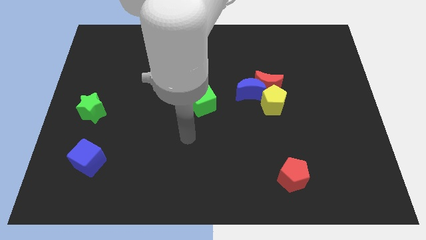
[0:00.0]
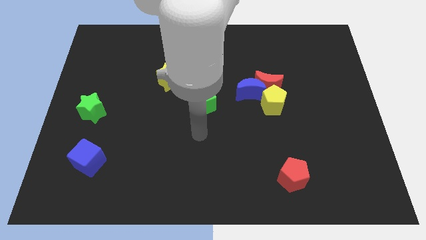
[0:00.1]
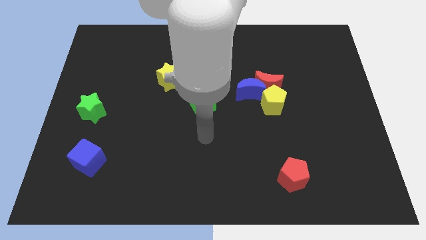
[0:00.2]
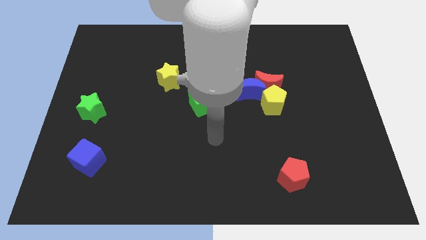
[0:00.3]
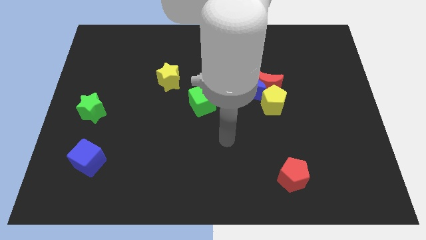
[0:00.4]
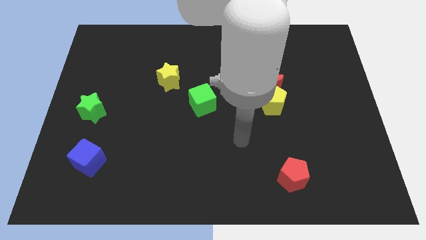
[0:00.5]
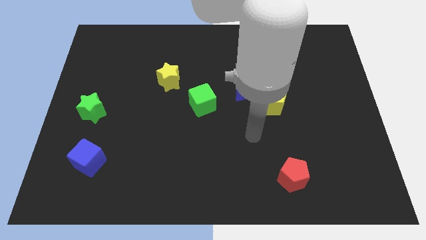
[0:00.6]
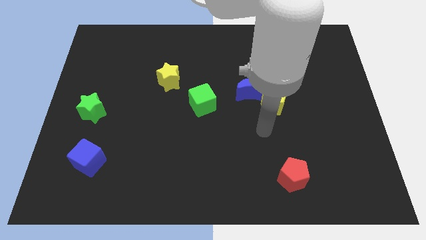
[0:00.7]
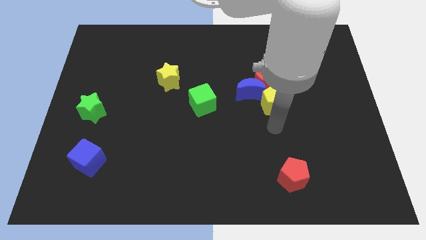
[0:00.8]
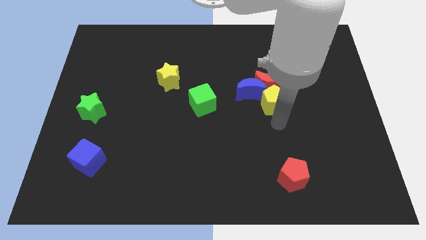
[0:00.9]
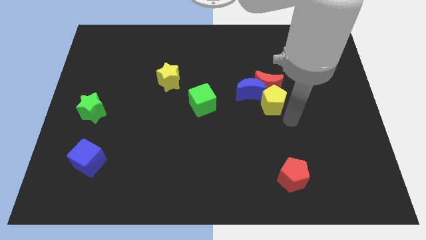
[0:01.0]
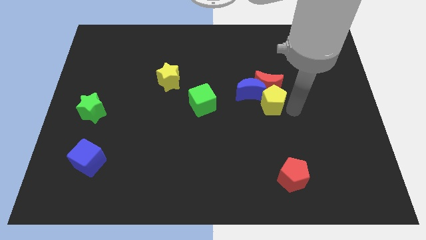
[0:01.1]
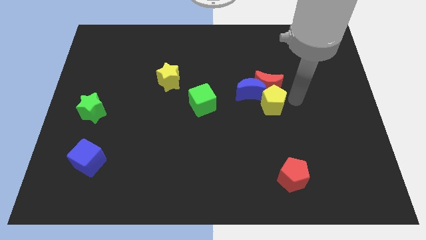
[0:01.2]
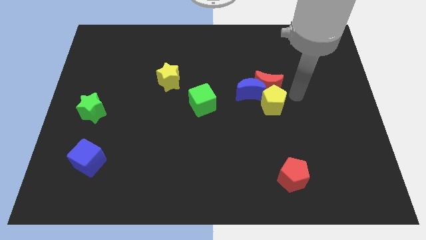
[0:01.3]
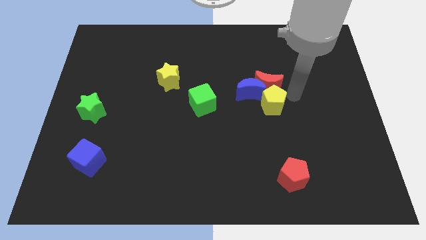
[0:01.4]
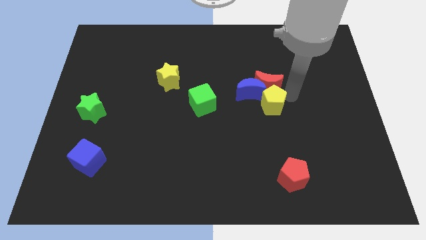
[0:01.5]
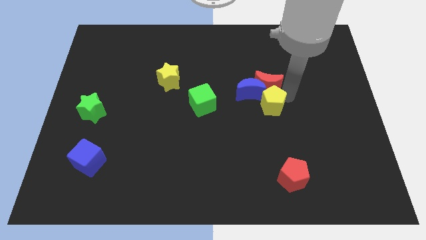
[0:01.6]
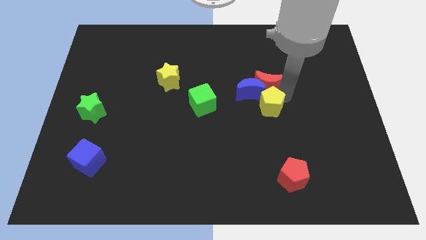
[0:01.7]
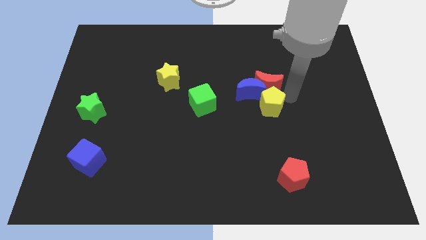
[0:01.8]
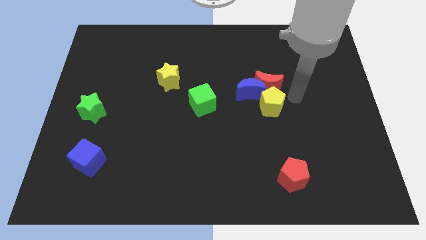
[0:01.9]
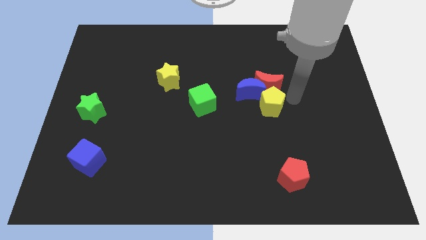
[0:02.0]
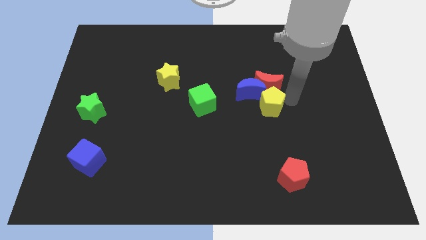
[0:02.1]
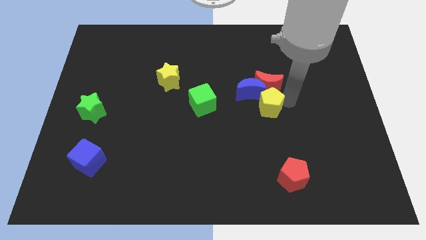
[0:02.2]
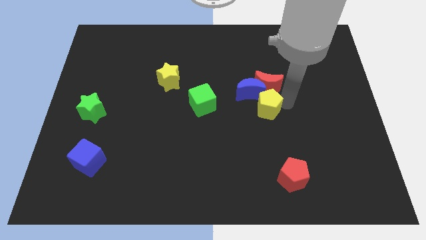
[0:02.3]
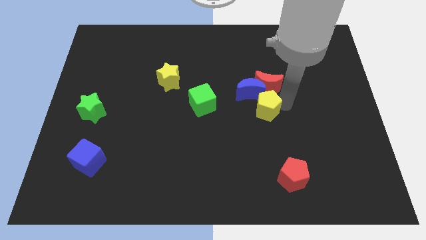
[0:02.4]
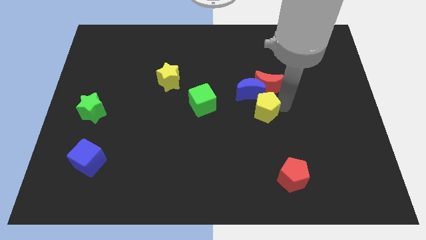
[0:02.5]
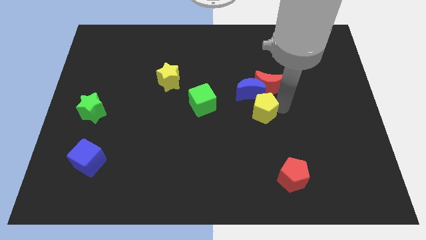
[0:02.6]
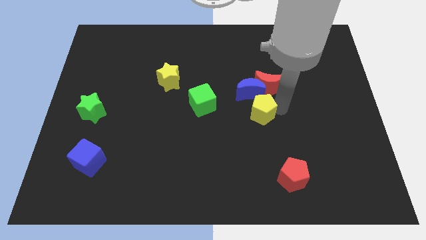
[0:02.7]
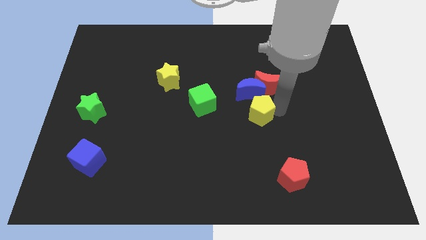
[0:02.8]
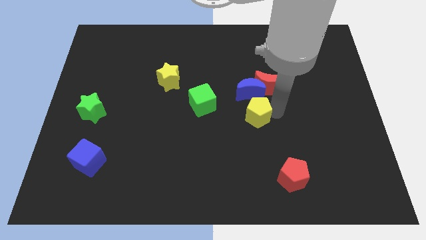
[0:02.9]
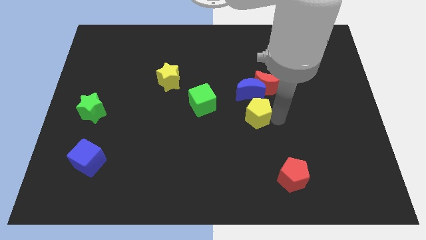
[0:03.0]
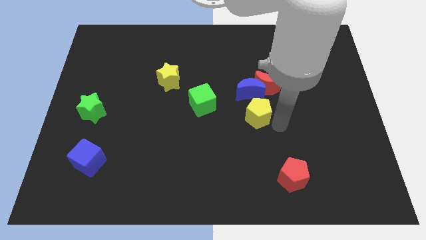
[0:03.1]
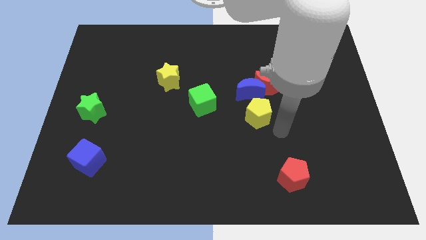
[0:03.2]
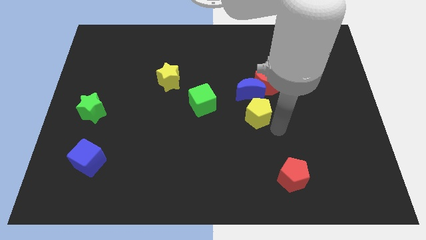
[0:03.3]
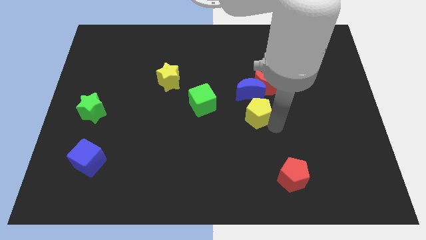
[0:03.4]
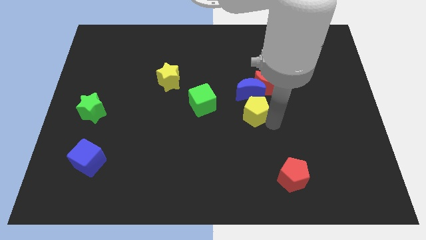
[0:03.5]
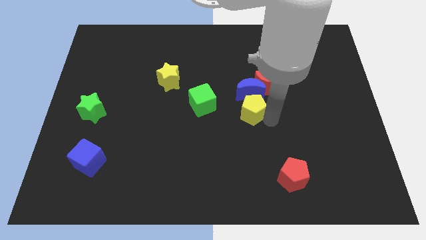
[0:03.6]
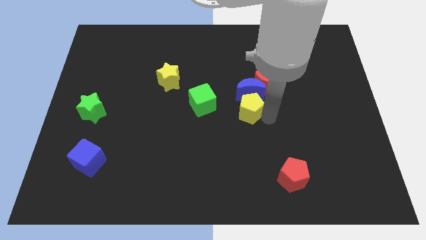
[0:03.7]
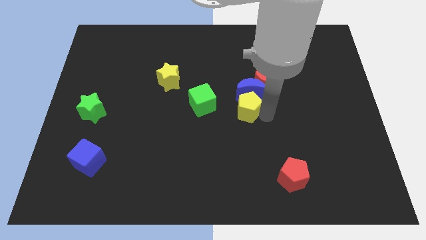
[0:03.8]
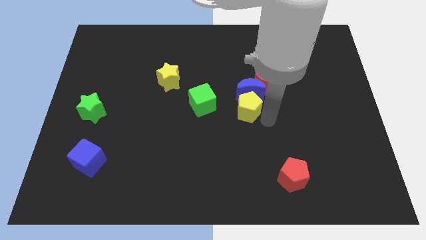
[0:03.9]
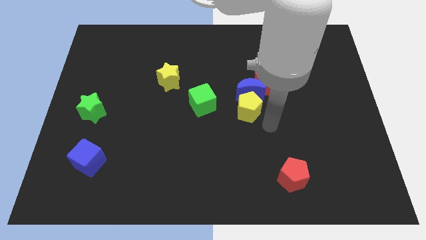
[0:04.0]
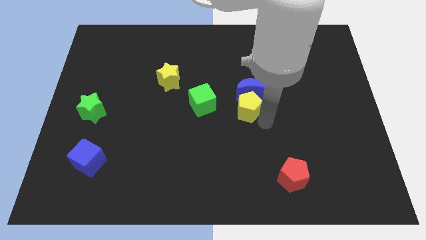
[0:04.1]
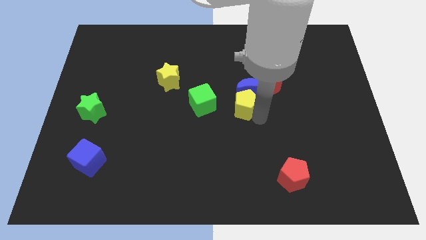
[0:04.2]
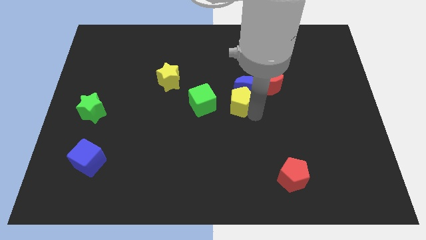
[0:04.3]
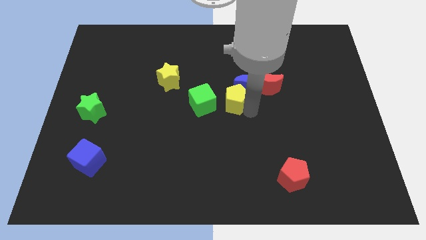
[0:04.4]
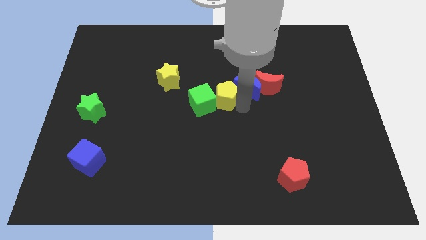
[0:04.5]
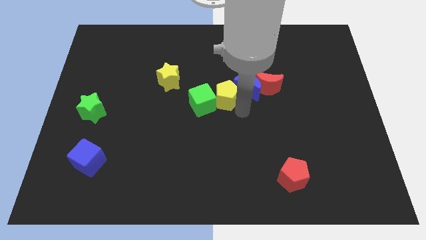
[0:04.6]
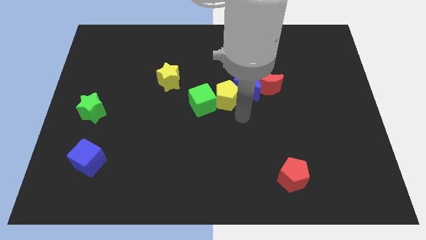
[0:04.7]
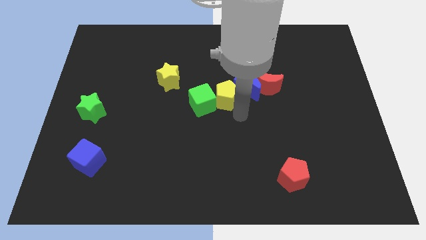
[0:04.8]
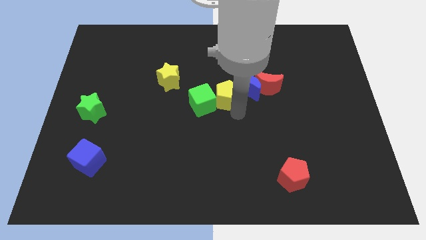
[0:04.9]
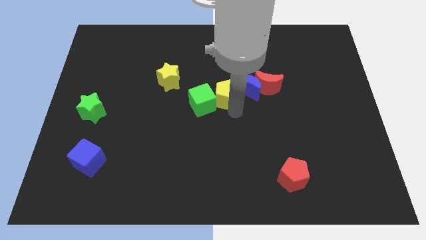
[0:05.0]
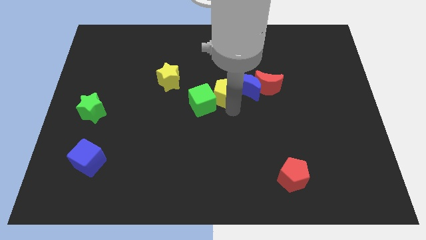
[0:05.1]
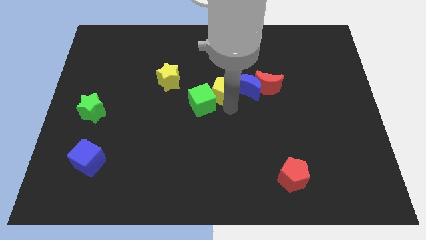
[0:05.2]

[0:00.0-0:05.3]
move the yellow pentagon to the right of the yellow star

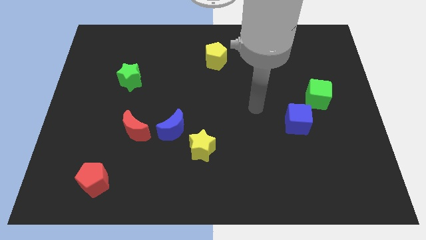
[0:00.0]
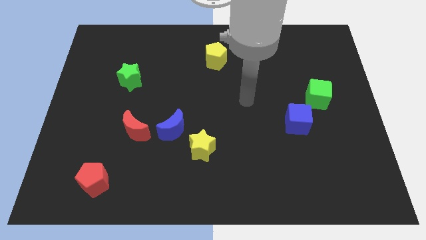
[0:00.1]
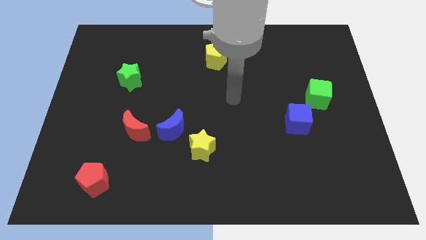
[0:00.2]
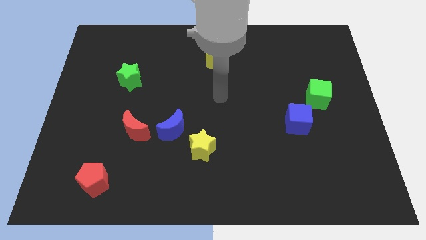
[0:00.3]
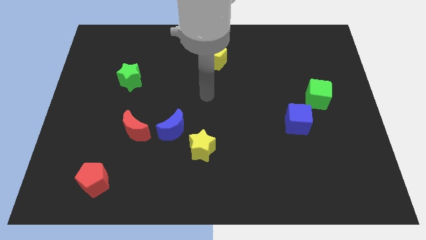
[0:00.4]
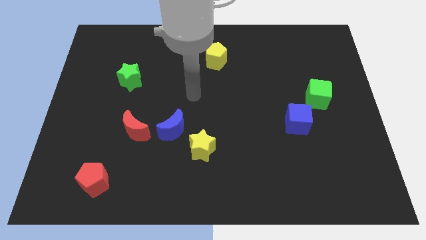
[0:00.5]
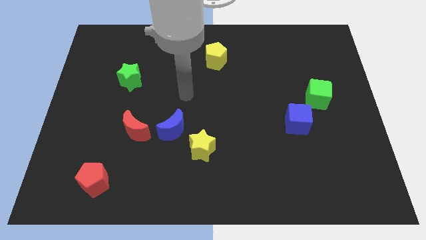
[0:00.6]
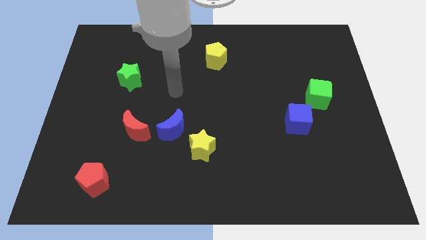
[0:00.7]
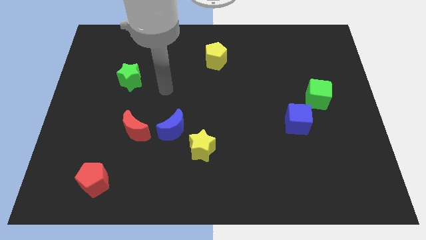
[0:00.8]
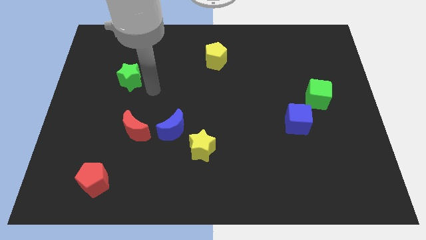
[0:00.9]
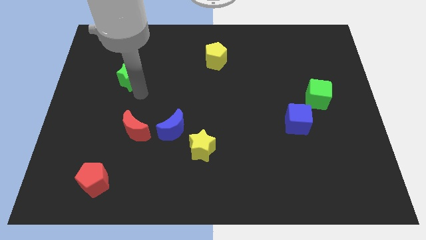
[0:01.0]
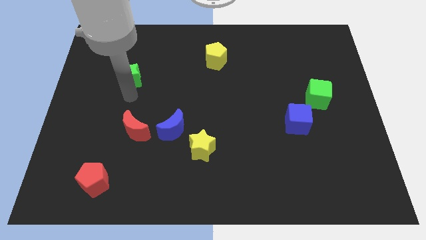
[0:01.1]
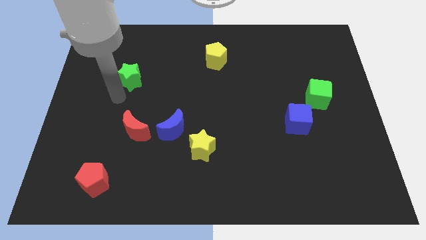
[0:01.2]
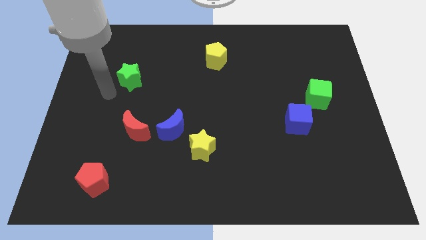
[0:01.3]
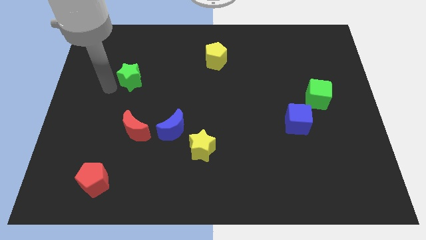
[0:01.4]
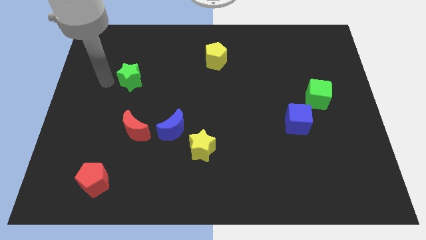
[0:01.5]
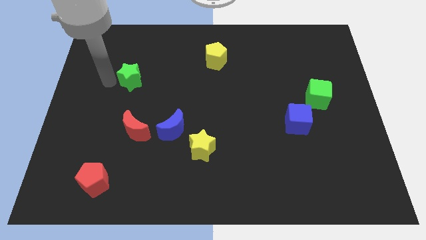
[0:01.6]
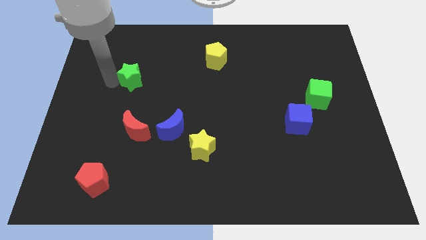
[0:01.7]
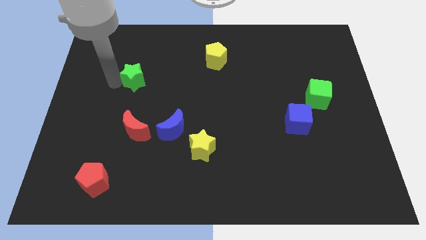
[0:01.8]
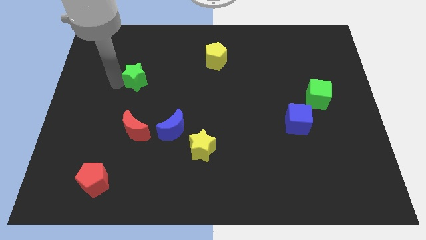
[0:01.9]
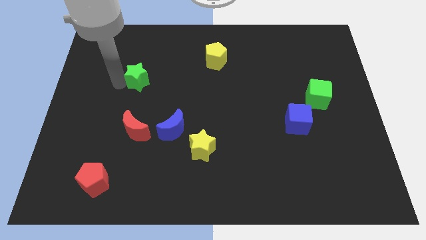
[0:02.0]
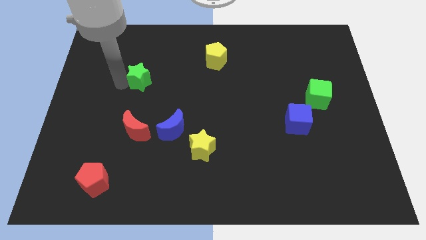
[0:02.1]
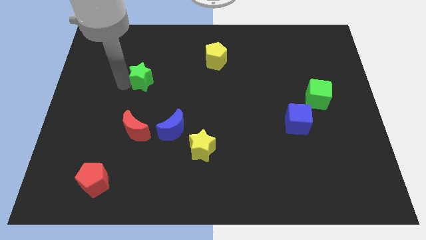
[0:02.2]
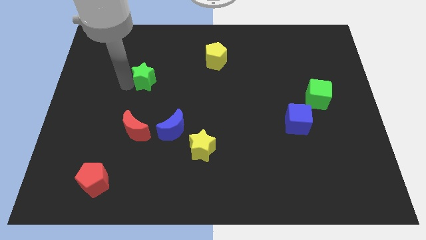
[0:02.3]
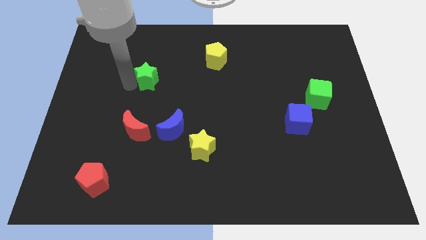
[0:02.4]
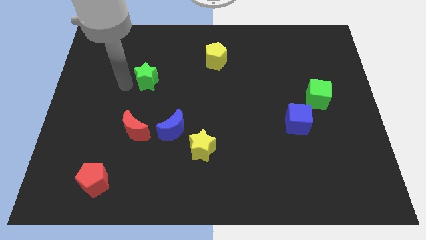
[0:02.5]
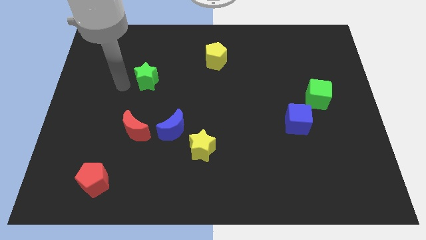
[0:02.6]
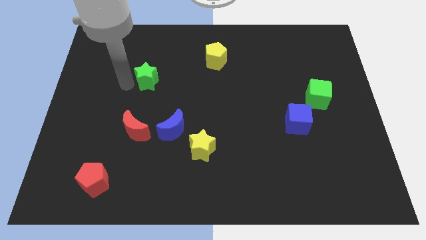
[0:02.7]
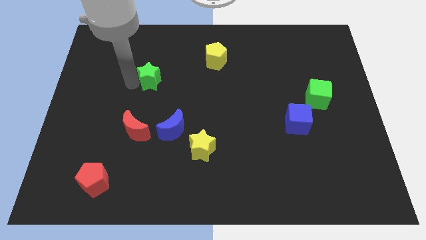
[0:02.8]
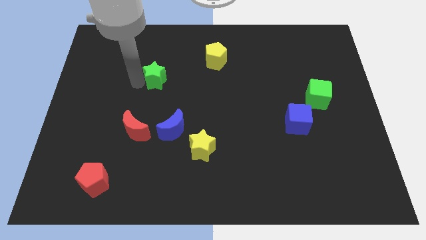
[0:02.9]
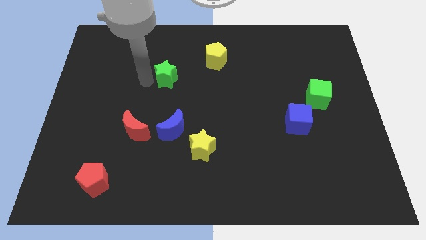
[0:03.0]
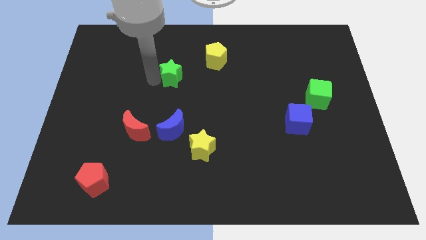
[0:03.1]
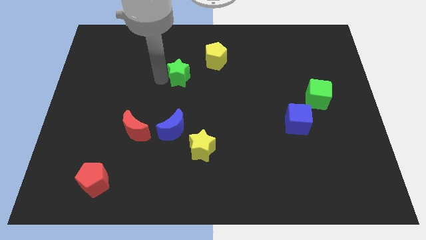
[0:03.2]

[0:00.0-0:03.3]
move the green star diagonally down and to the left of the yellow pentagon
